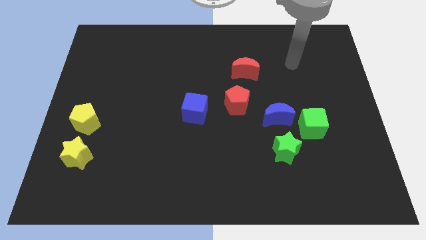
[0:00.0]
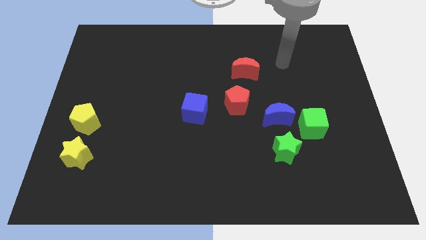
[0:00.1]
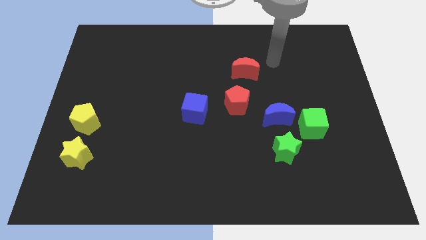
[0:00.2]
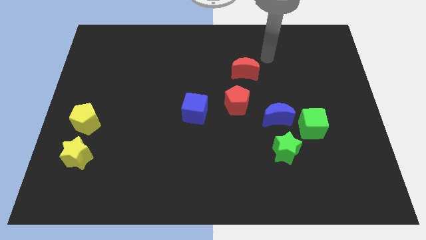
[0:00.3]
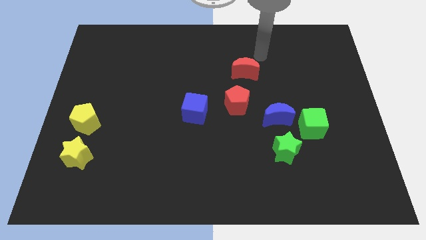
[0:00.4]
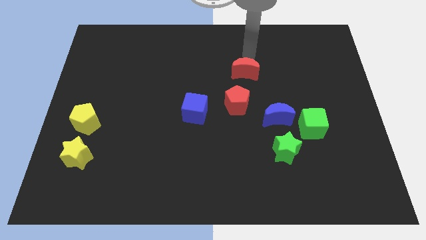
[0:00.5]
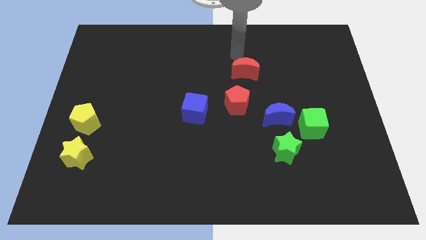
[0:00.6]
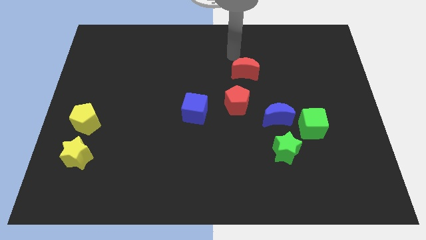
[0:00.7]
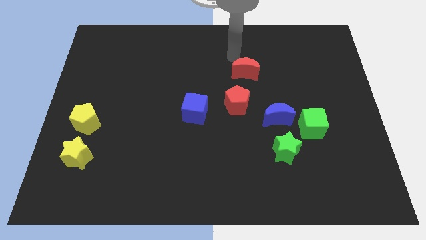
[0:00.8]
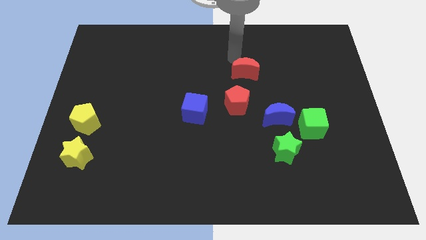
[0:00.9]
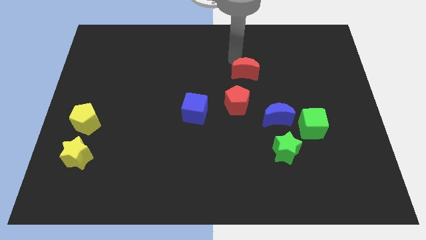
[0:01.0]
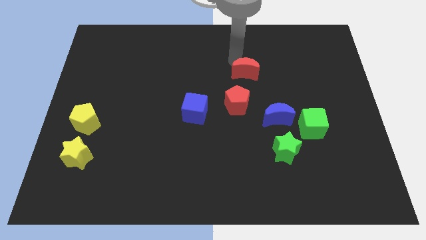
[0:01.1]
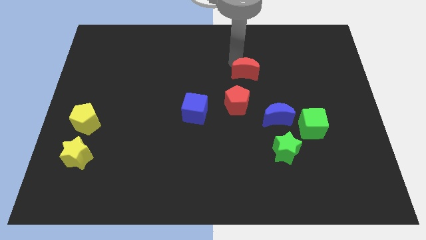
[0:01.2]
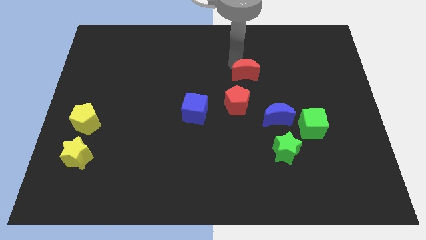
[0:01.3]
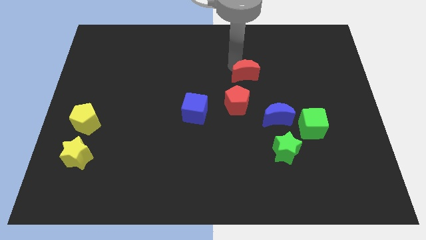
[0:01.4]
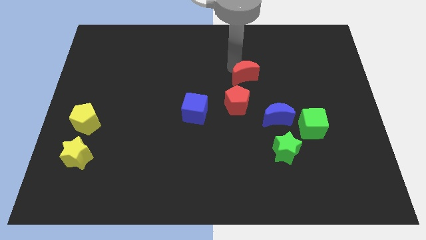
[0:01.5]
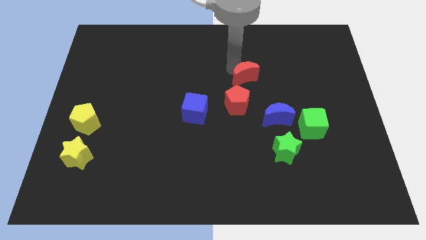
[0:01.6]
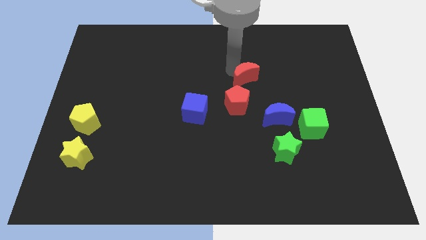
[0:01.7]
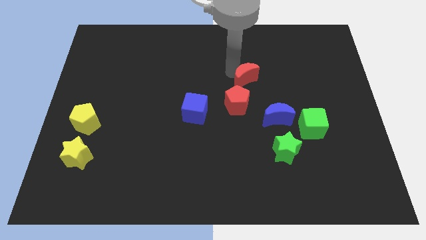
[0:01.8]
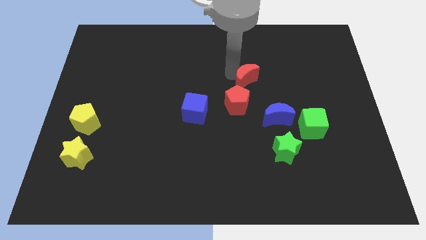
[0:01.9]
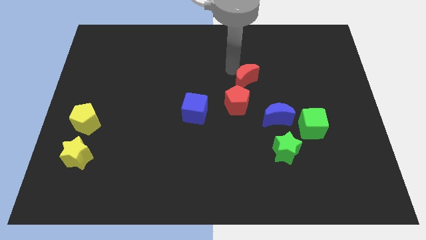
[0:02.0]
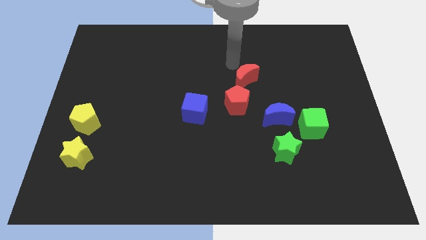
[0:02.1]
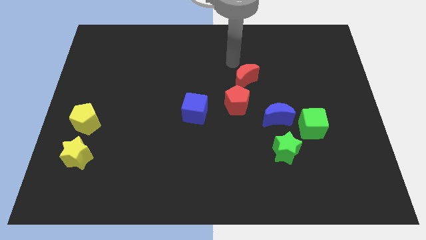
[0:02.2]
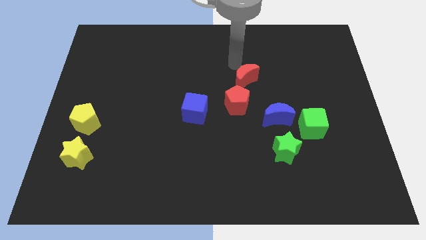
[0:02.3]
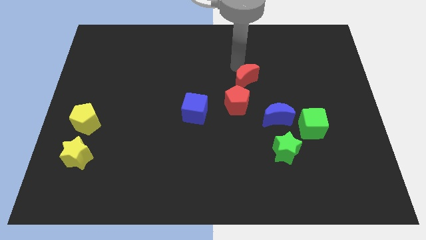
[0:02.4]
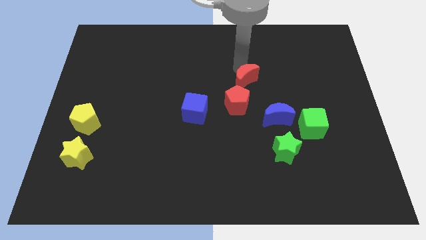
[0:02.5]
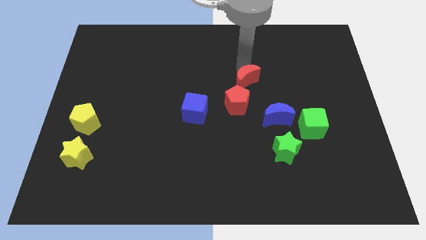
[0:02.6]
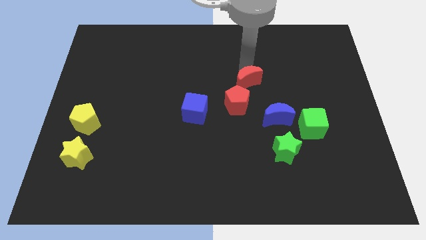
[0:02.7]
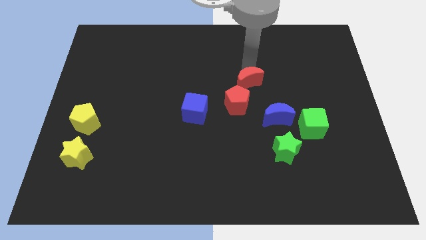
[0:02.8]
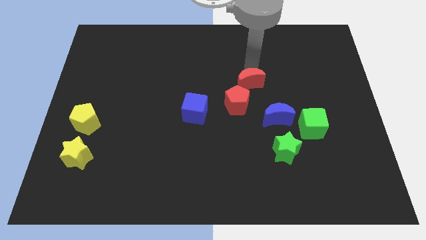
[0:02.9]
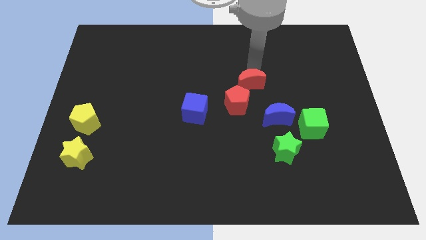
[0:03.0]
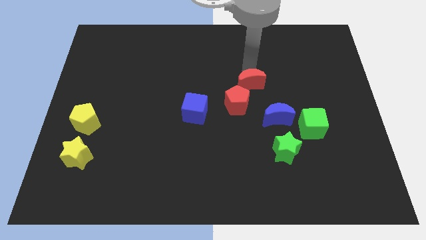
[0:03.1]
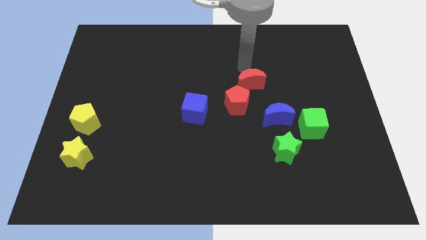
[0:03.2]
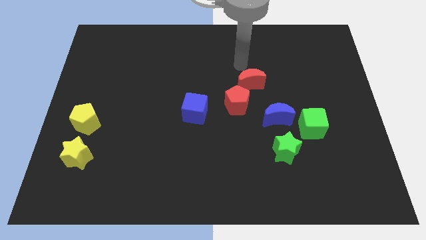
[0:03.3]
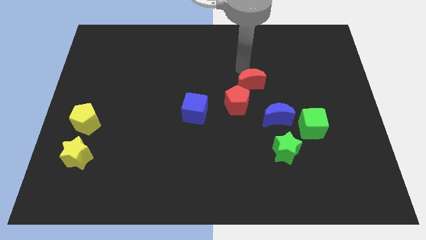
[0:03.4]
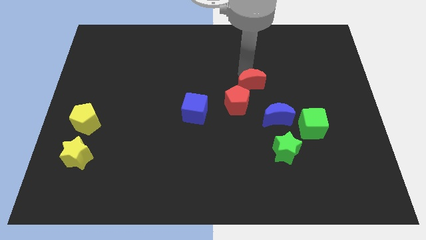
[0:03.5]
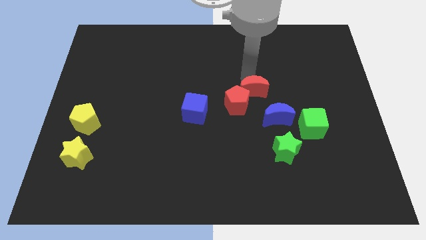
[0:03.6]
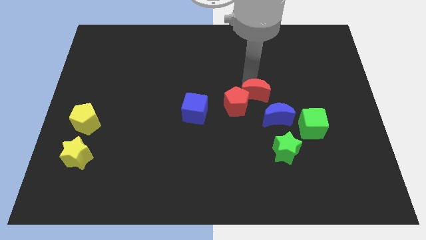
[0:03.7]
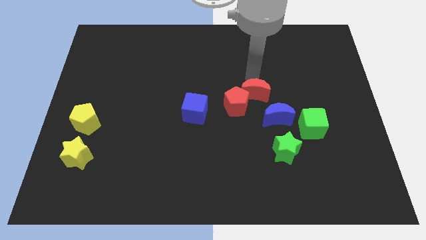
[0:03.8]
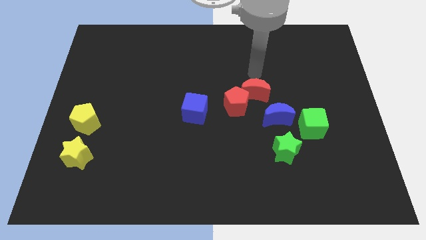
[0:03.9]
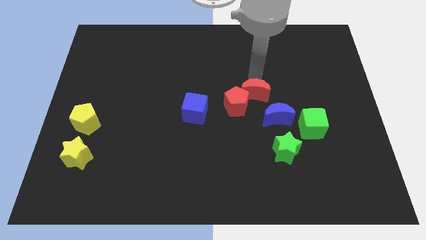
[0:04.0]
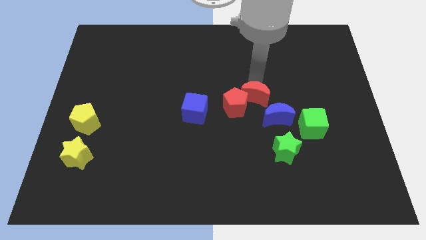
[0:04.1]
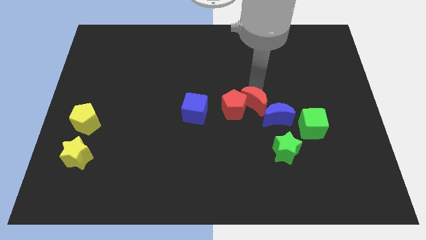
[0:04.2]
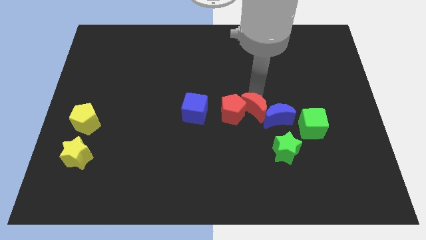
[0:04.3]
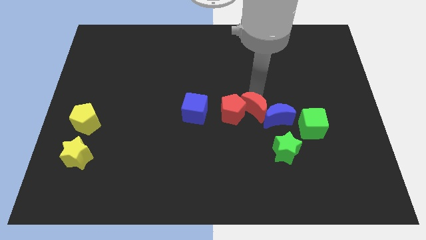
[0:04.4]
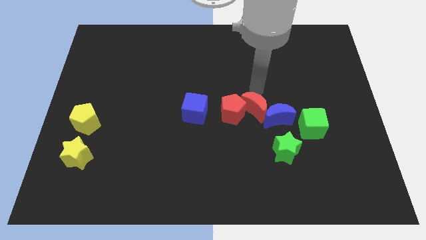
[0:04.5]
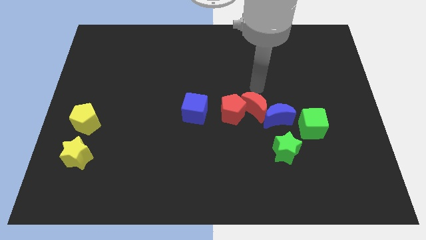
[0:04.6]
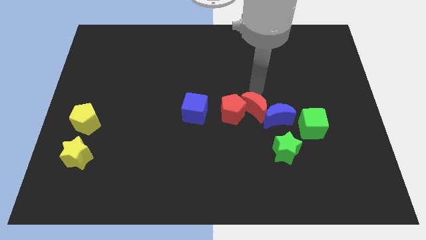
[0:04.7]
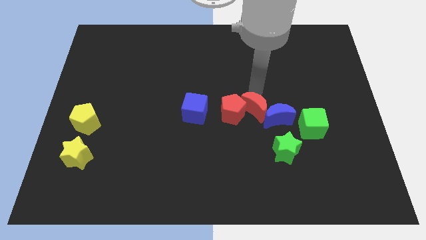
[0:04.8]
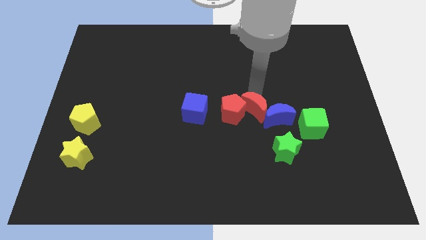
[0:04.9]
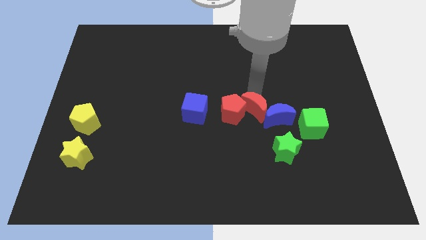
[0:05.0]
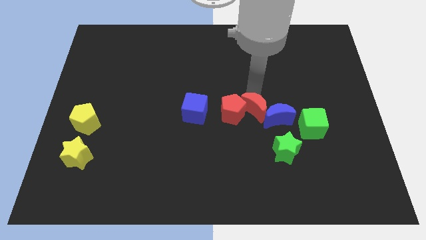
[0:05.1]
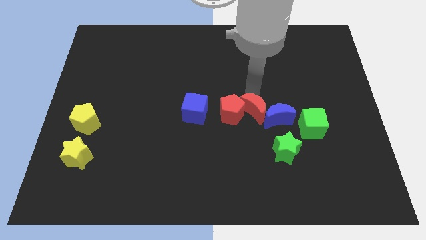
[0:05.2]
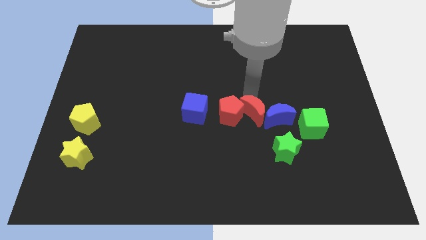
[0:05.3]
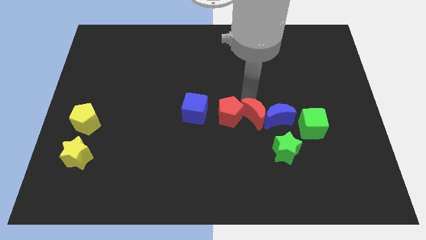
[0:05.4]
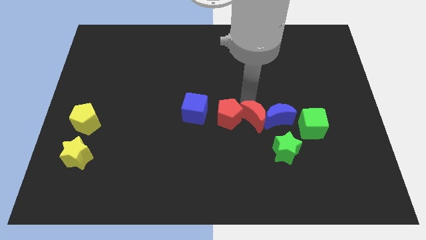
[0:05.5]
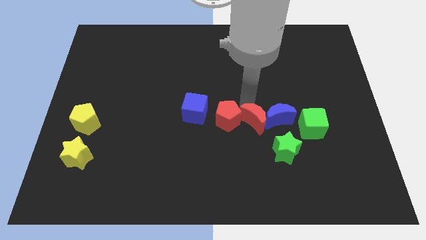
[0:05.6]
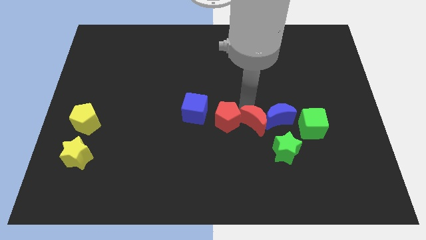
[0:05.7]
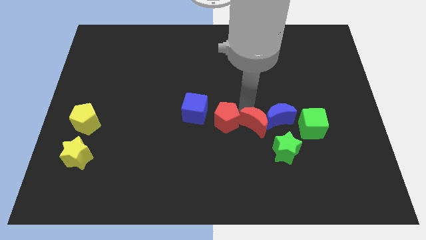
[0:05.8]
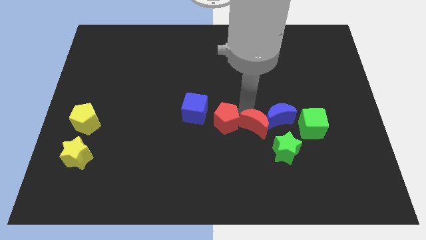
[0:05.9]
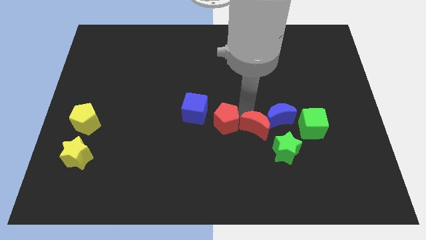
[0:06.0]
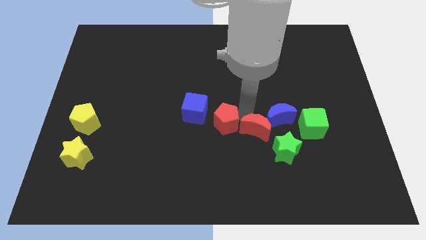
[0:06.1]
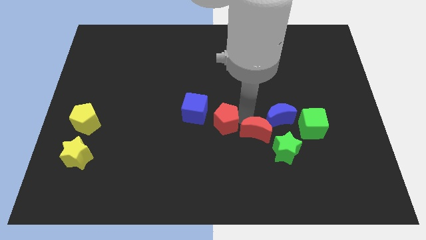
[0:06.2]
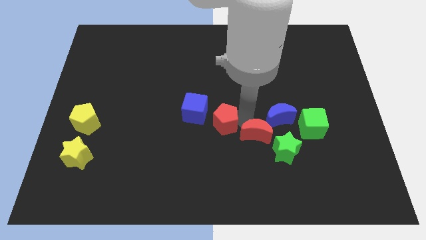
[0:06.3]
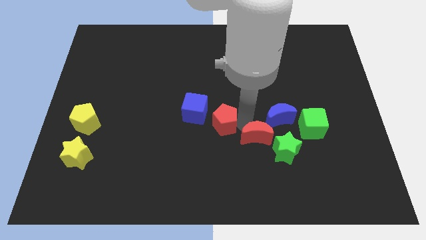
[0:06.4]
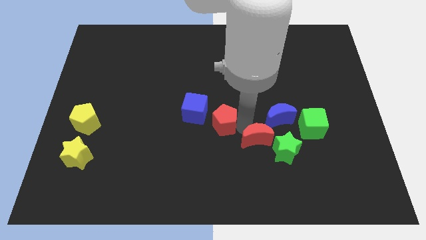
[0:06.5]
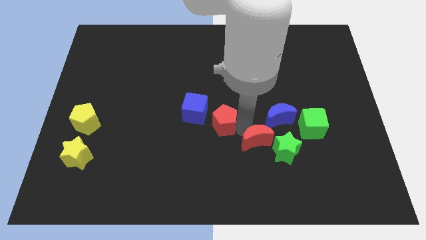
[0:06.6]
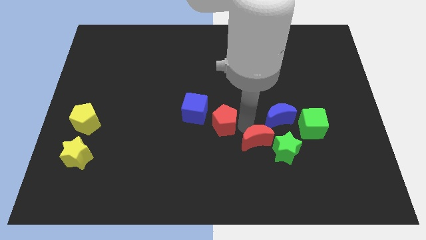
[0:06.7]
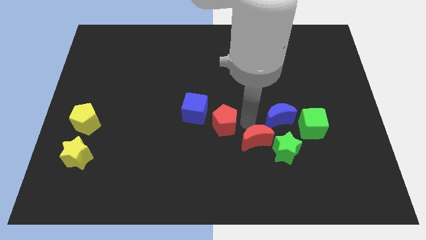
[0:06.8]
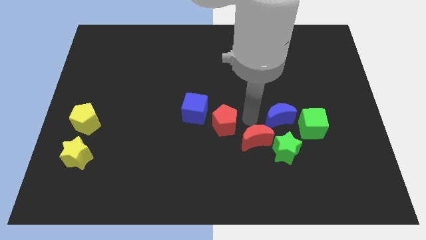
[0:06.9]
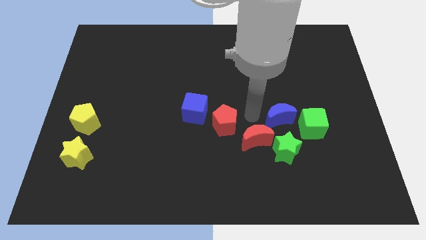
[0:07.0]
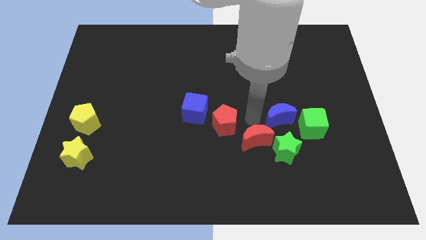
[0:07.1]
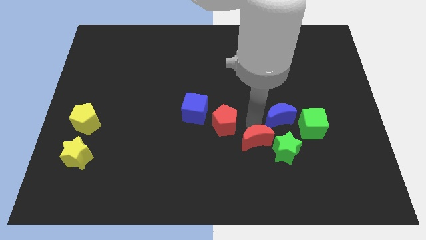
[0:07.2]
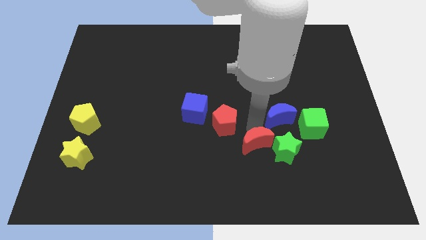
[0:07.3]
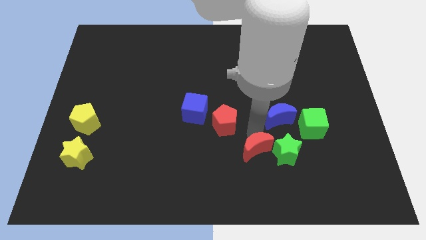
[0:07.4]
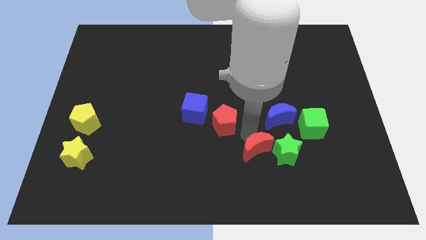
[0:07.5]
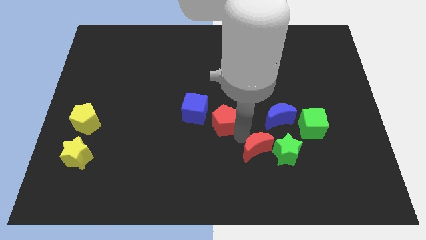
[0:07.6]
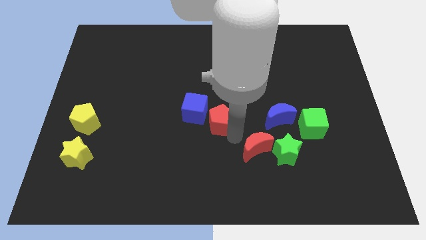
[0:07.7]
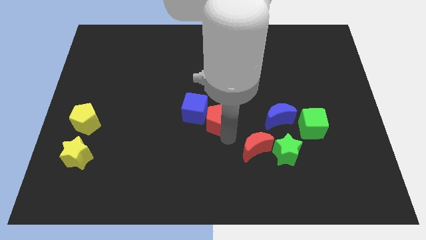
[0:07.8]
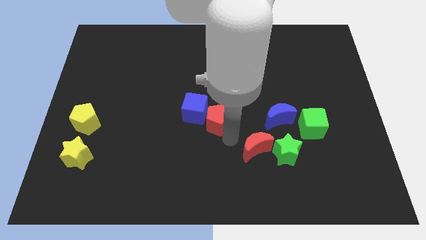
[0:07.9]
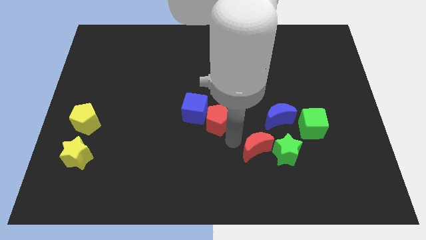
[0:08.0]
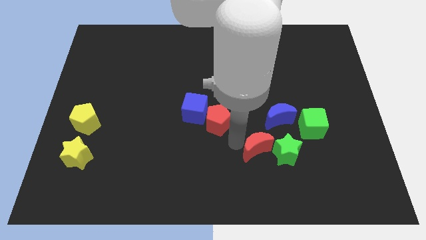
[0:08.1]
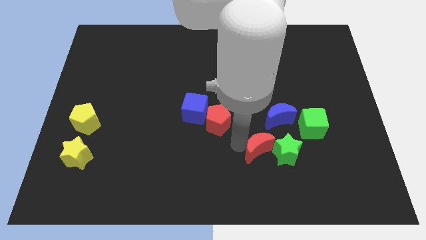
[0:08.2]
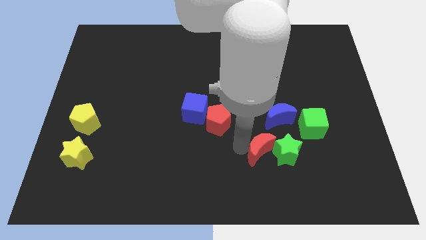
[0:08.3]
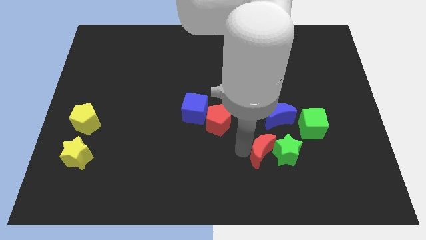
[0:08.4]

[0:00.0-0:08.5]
push the red moon below the blue moon

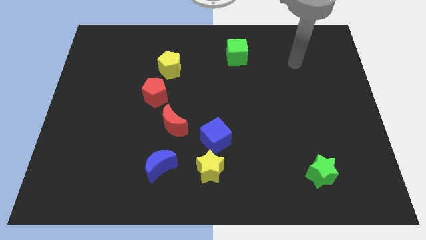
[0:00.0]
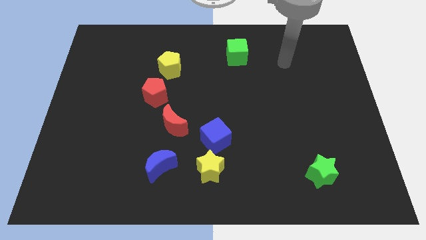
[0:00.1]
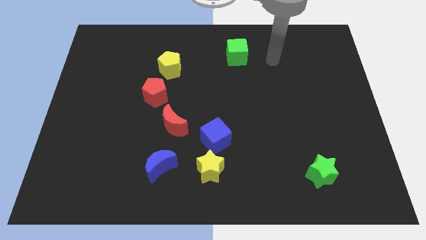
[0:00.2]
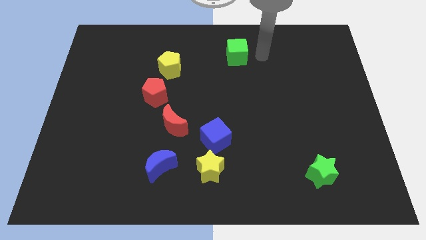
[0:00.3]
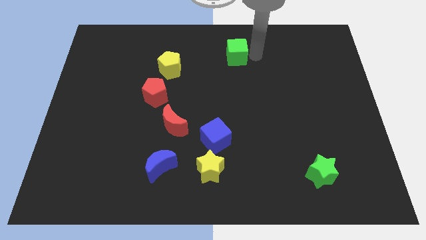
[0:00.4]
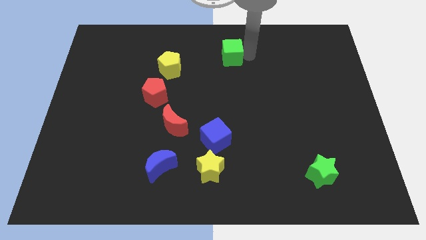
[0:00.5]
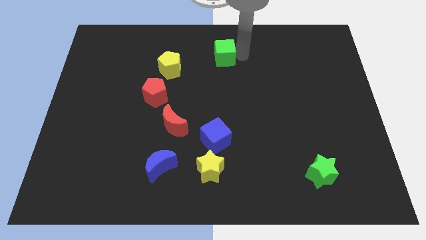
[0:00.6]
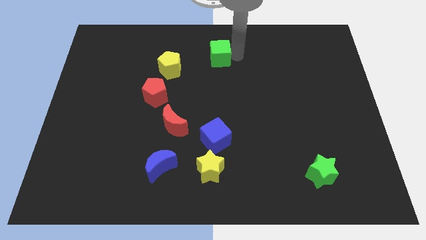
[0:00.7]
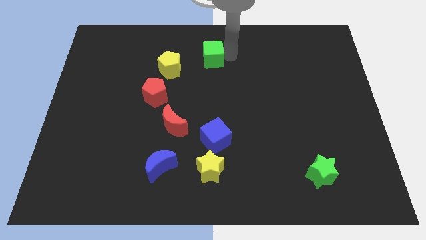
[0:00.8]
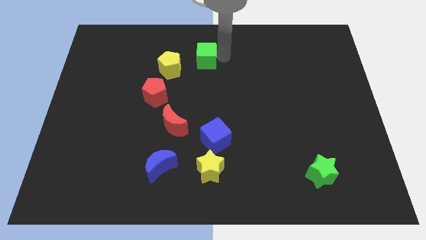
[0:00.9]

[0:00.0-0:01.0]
push the green cube to the top right side of the yellow pentagon
